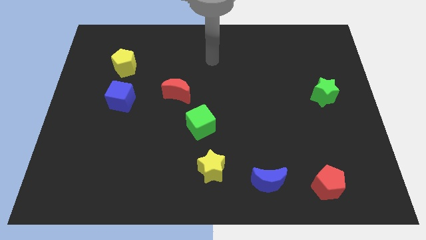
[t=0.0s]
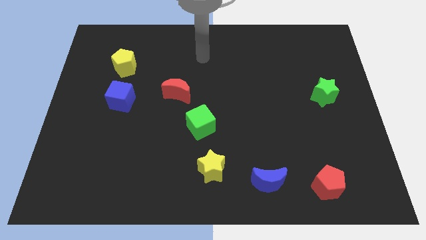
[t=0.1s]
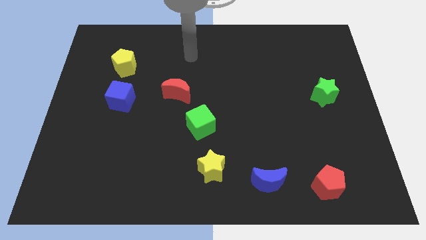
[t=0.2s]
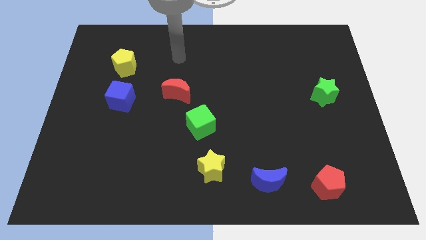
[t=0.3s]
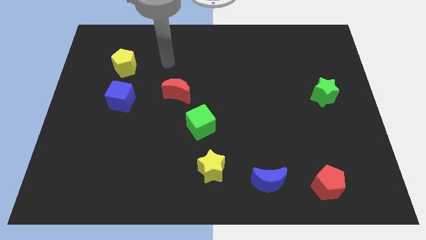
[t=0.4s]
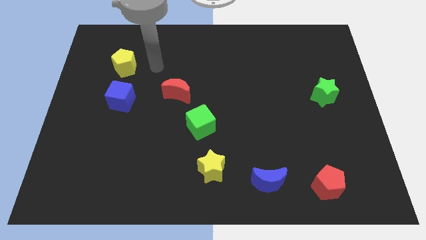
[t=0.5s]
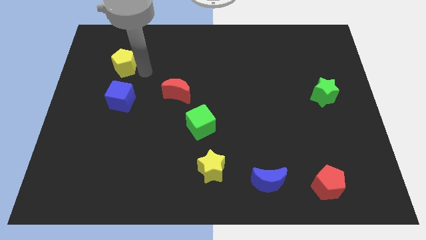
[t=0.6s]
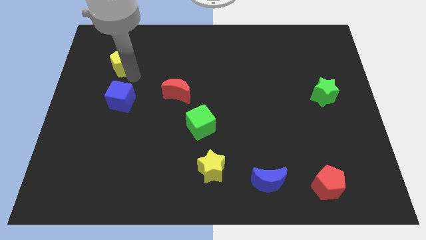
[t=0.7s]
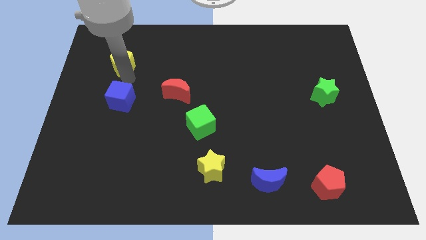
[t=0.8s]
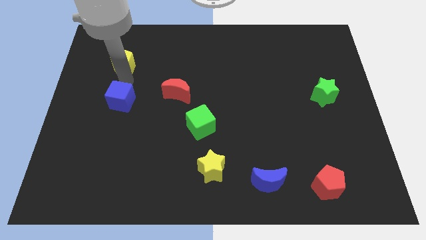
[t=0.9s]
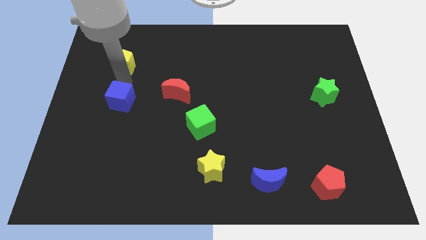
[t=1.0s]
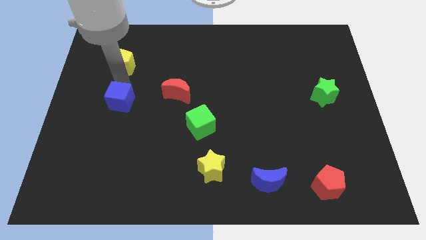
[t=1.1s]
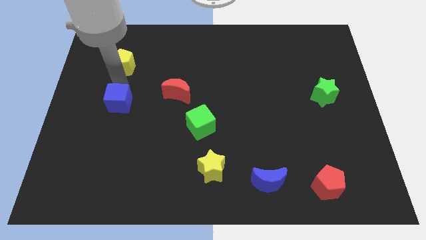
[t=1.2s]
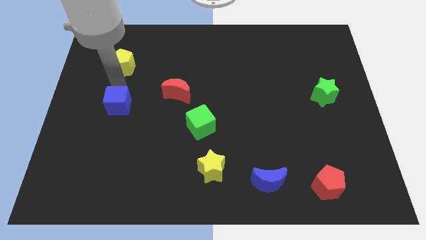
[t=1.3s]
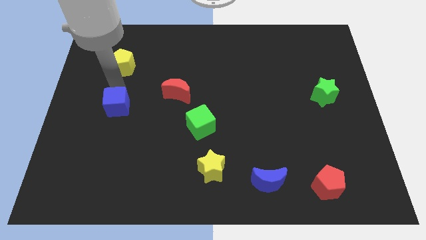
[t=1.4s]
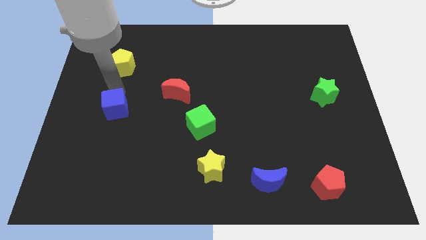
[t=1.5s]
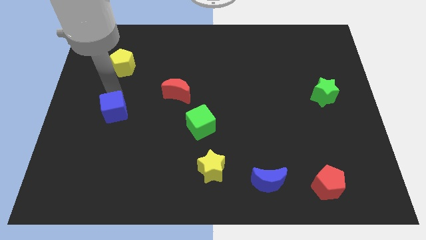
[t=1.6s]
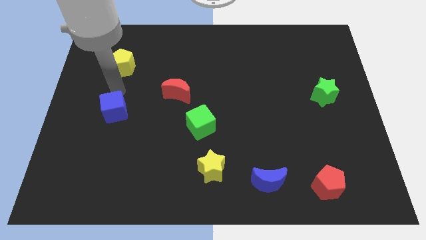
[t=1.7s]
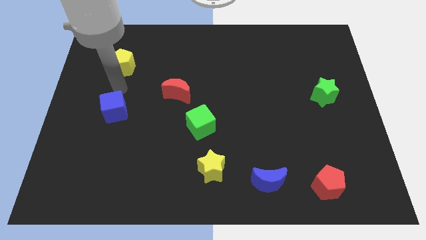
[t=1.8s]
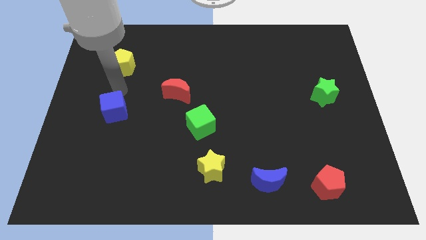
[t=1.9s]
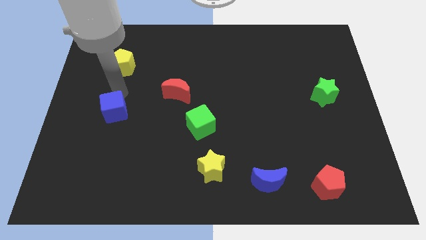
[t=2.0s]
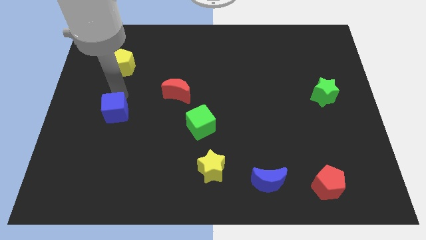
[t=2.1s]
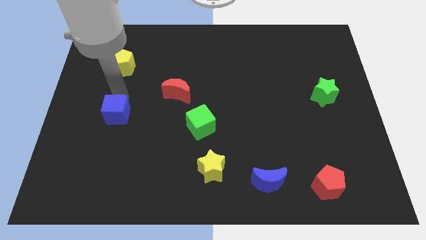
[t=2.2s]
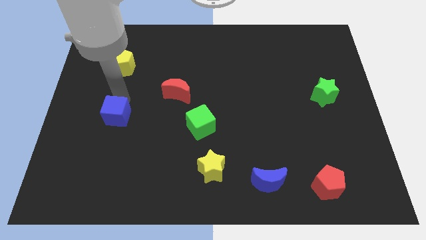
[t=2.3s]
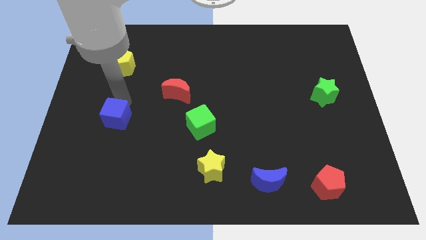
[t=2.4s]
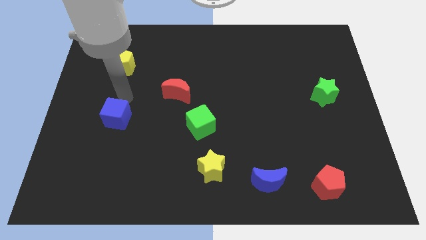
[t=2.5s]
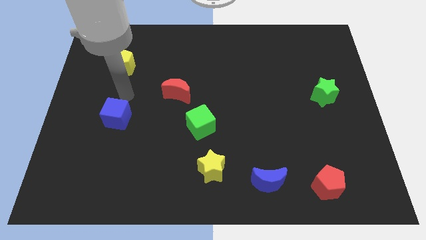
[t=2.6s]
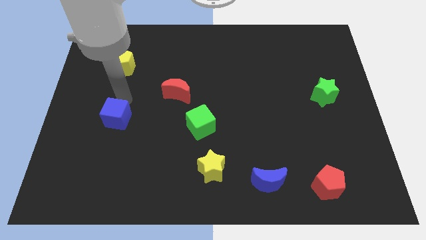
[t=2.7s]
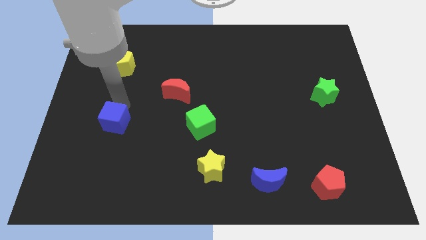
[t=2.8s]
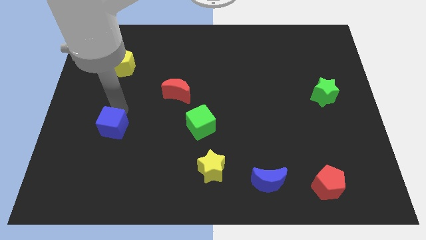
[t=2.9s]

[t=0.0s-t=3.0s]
slightly move the blue cube downwards

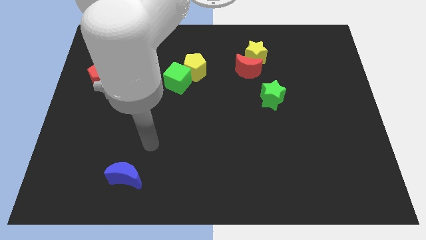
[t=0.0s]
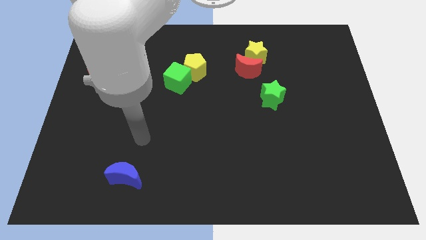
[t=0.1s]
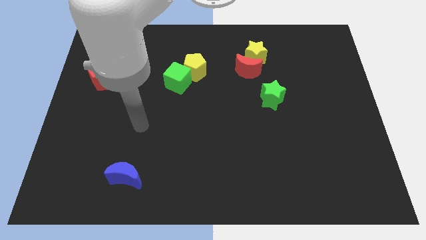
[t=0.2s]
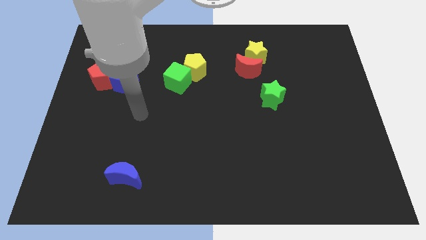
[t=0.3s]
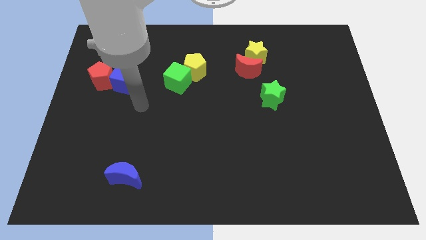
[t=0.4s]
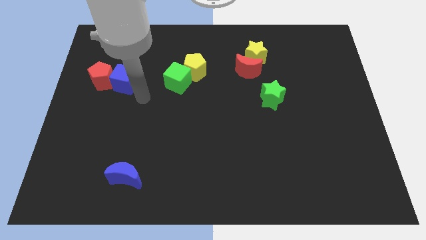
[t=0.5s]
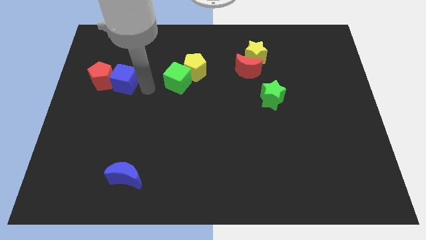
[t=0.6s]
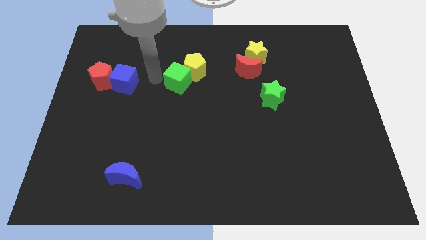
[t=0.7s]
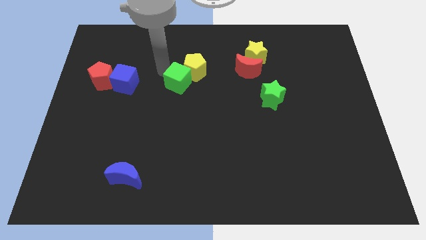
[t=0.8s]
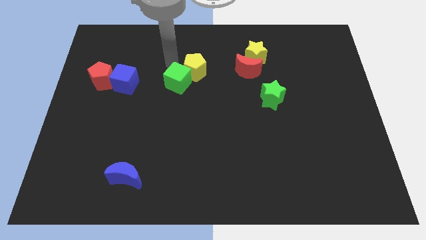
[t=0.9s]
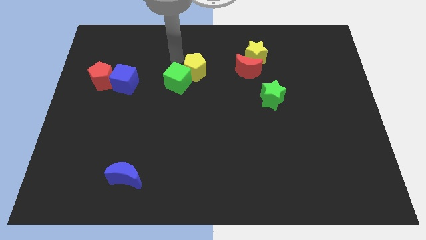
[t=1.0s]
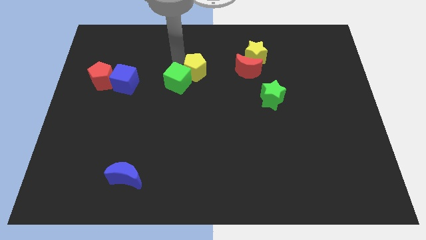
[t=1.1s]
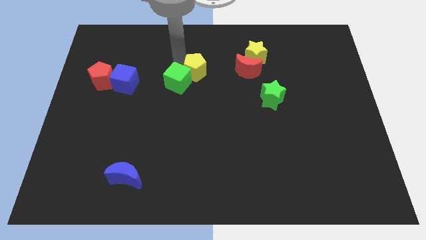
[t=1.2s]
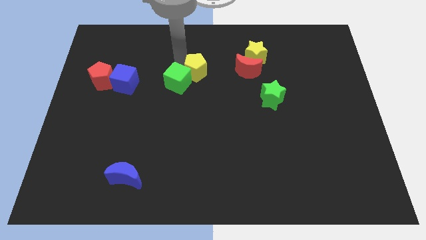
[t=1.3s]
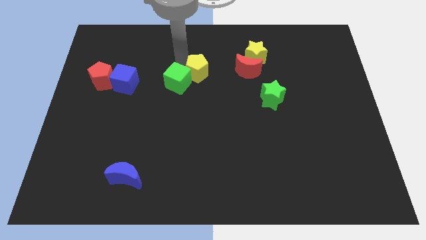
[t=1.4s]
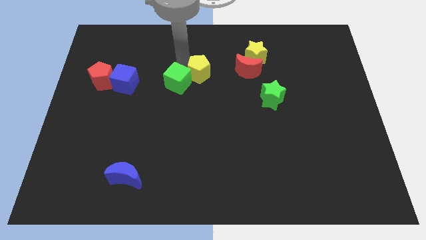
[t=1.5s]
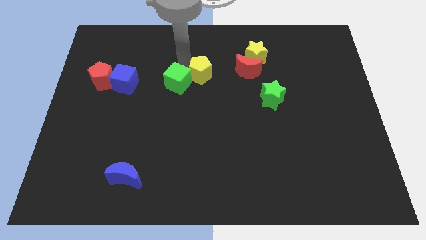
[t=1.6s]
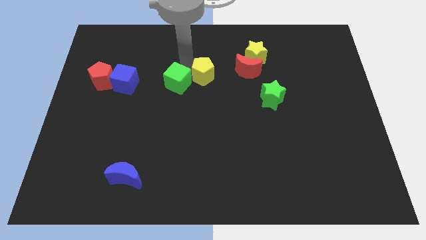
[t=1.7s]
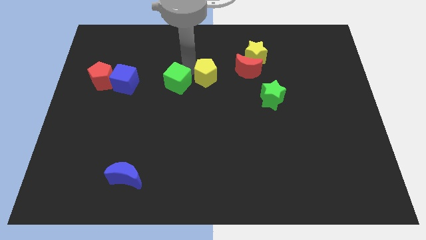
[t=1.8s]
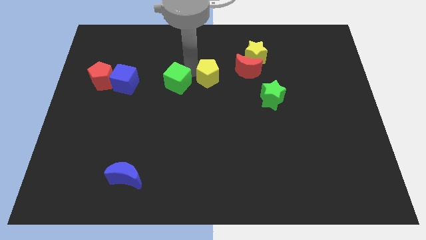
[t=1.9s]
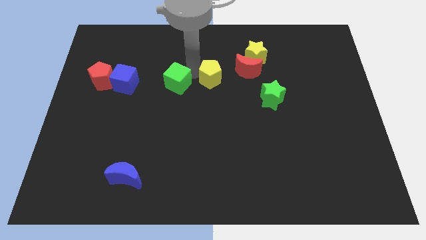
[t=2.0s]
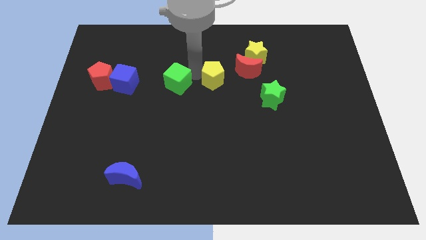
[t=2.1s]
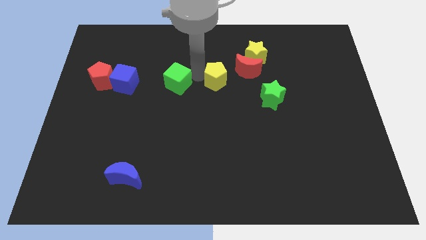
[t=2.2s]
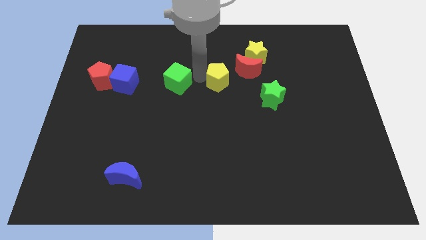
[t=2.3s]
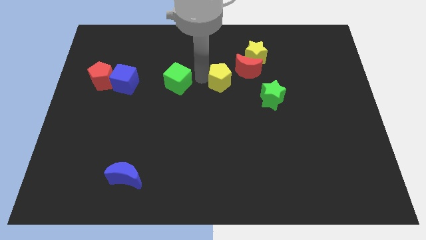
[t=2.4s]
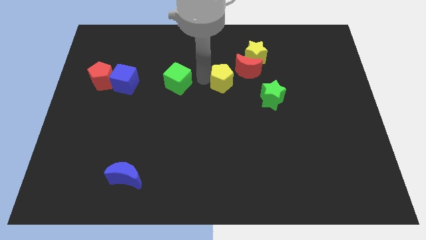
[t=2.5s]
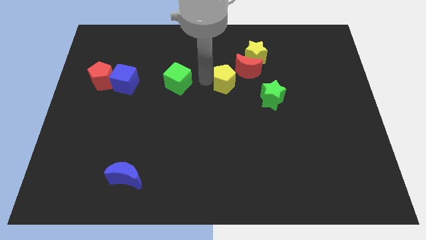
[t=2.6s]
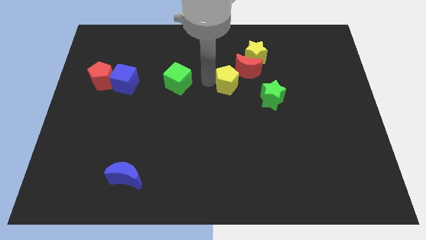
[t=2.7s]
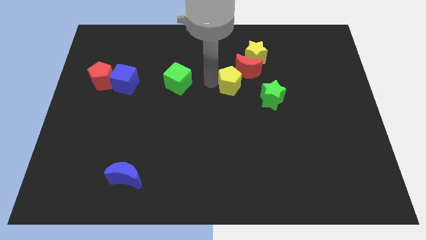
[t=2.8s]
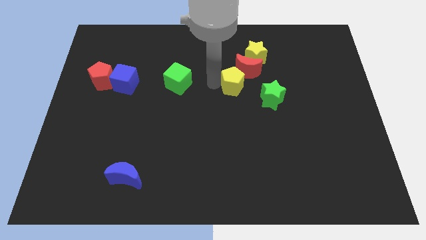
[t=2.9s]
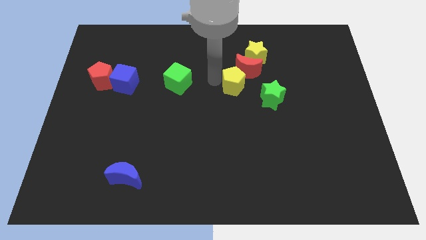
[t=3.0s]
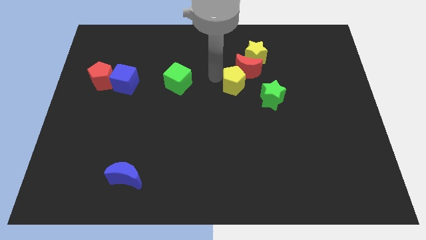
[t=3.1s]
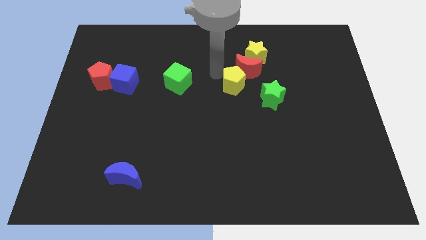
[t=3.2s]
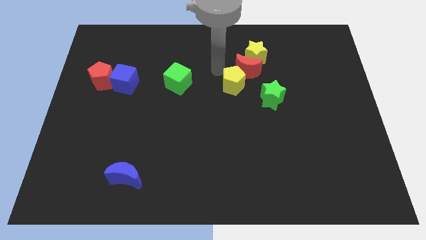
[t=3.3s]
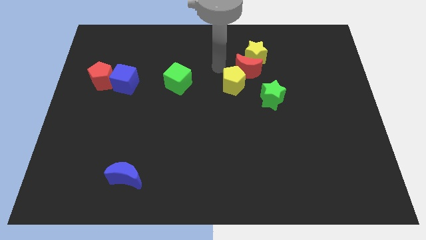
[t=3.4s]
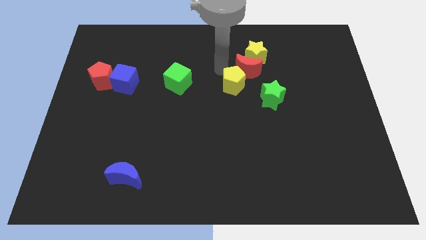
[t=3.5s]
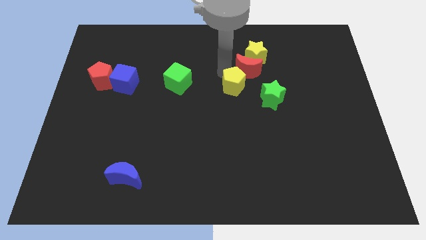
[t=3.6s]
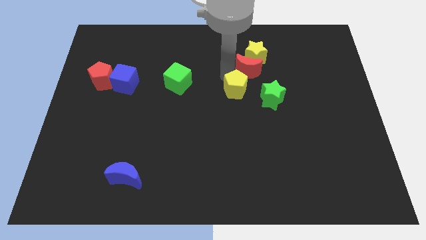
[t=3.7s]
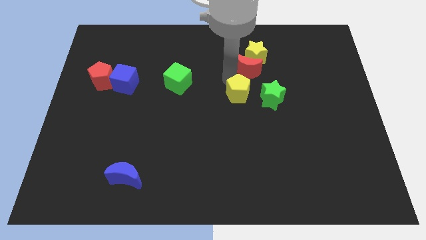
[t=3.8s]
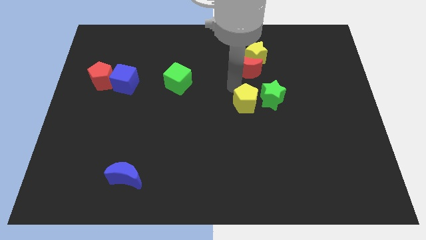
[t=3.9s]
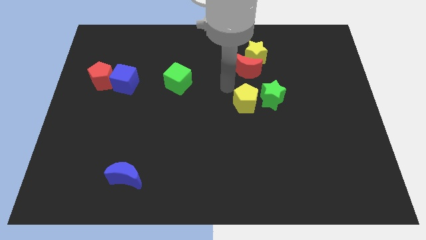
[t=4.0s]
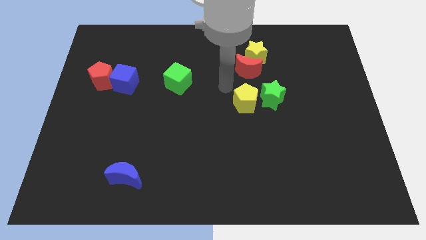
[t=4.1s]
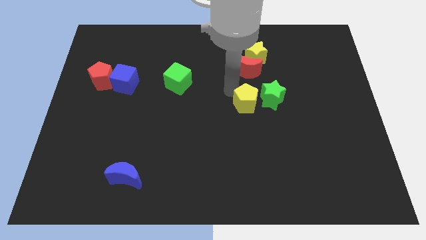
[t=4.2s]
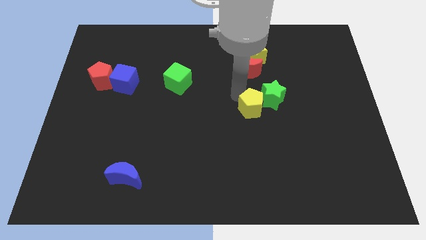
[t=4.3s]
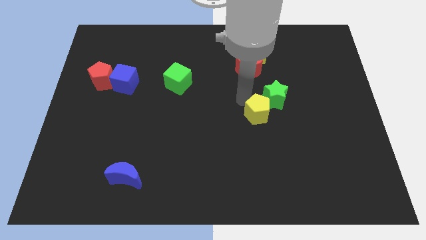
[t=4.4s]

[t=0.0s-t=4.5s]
slide the yellow pentagon down and right diagonally

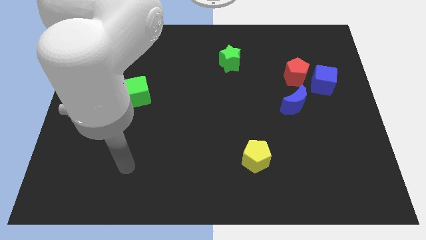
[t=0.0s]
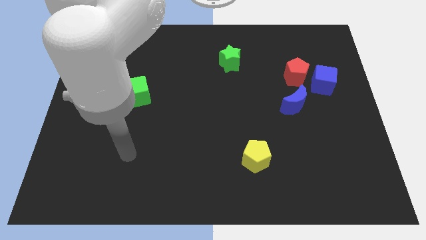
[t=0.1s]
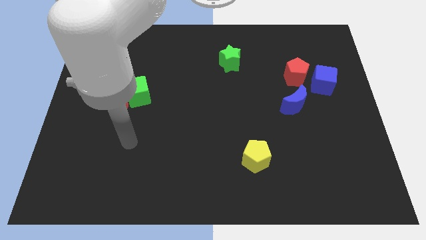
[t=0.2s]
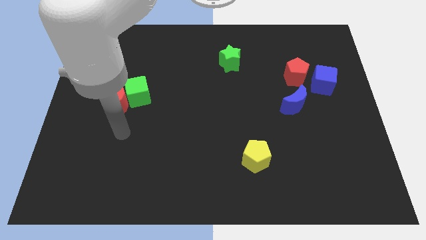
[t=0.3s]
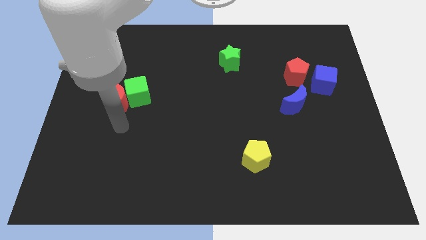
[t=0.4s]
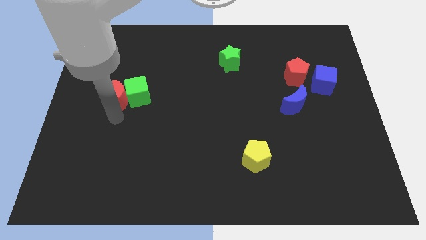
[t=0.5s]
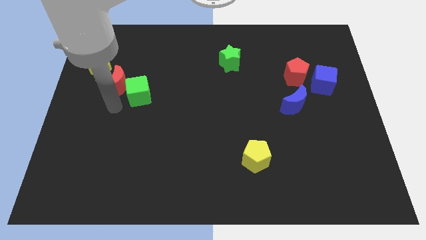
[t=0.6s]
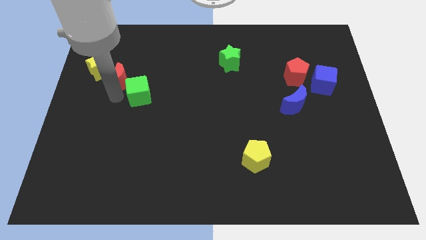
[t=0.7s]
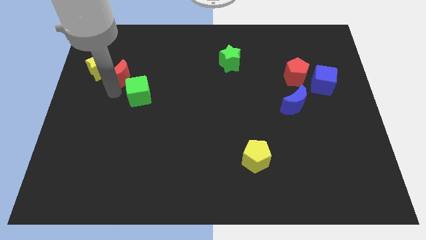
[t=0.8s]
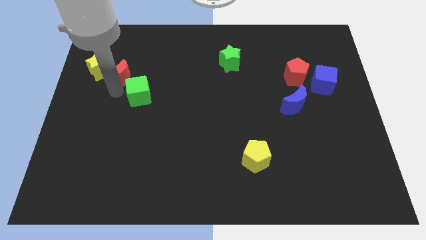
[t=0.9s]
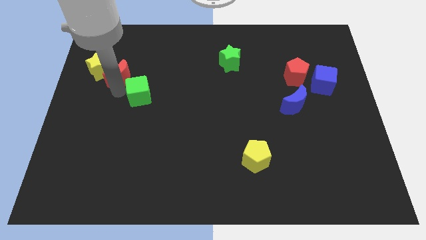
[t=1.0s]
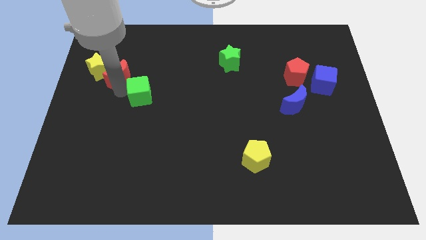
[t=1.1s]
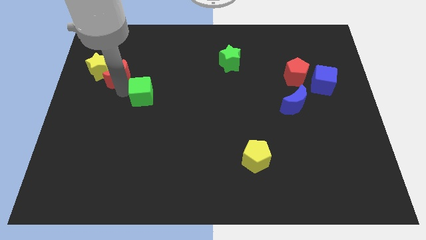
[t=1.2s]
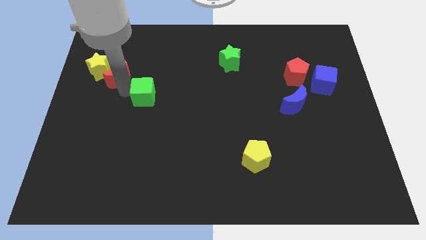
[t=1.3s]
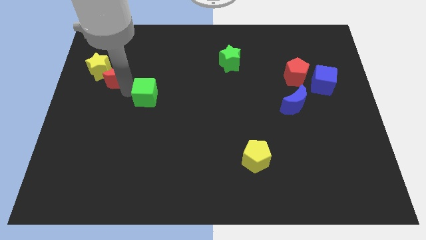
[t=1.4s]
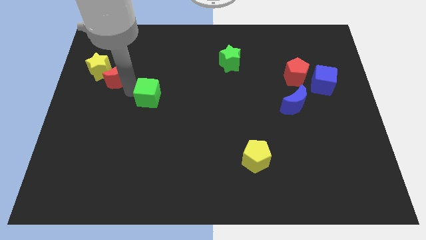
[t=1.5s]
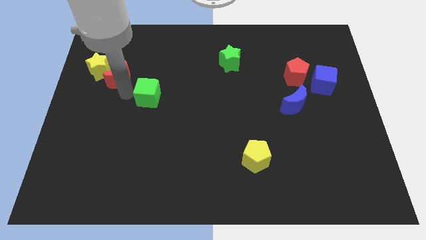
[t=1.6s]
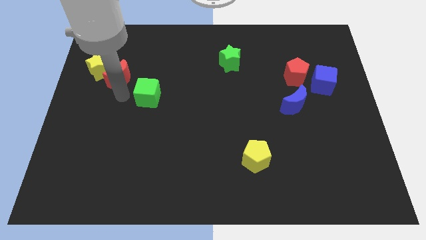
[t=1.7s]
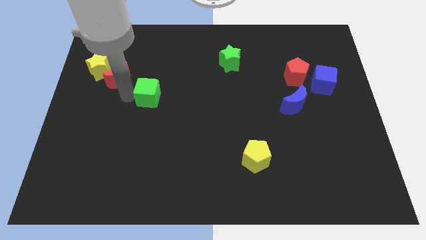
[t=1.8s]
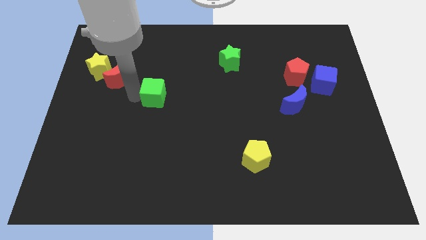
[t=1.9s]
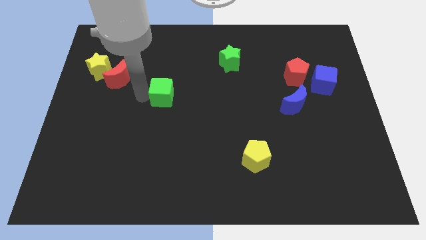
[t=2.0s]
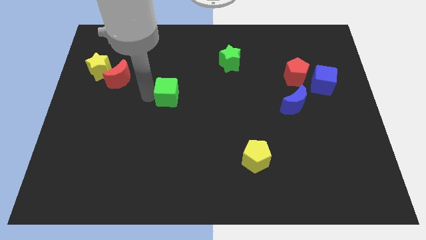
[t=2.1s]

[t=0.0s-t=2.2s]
slightly push the green cube right
